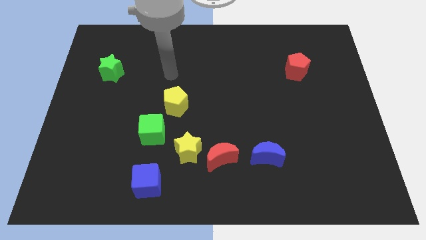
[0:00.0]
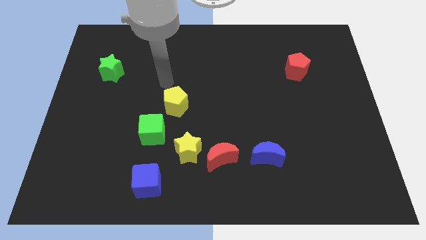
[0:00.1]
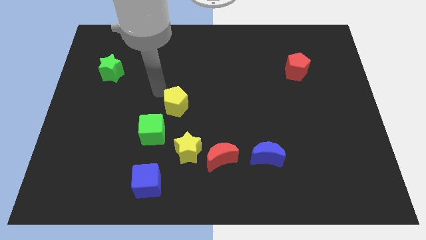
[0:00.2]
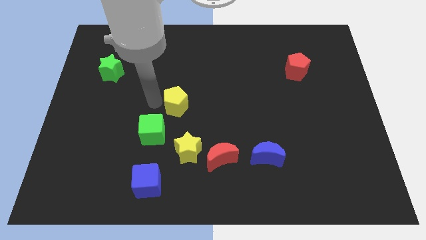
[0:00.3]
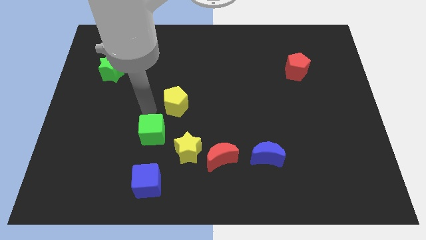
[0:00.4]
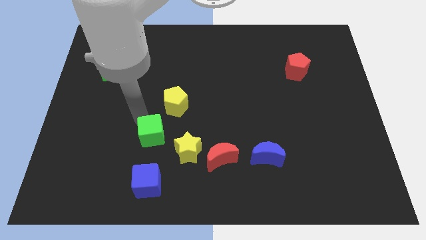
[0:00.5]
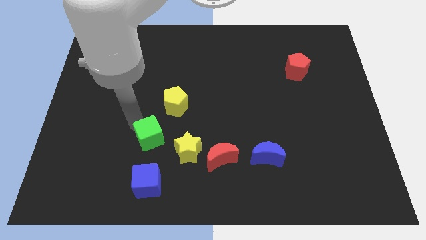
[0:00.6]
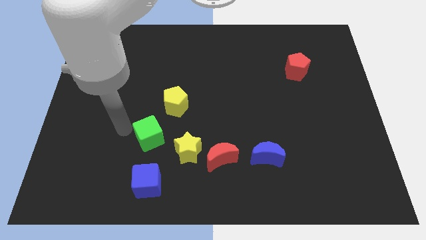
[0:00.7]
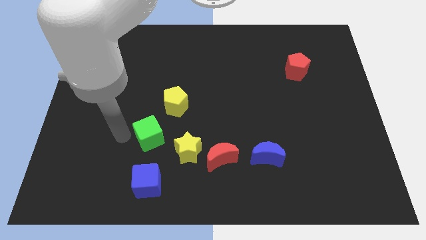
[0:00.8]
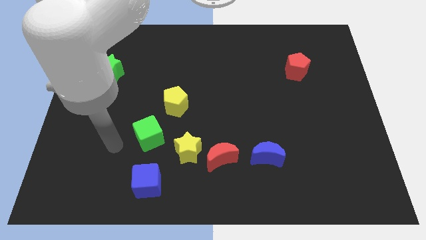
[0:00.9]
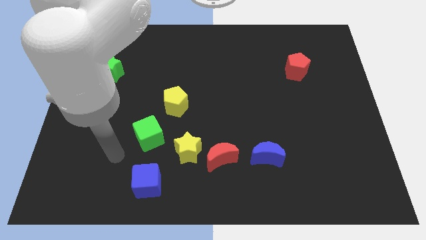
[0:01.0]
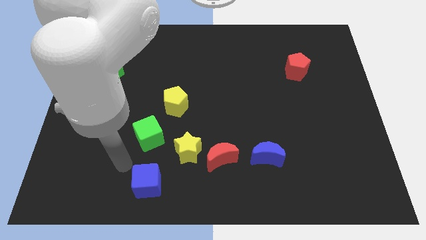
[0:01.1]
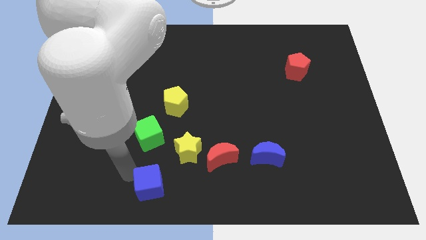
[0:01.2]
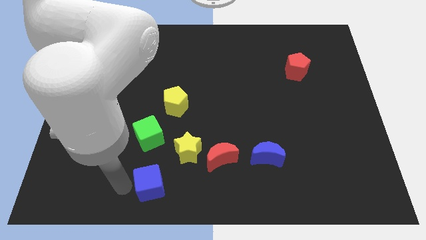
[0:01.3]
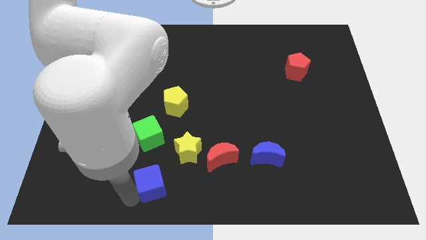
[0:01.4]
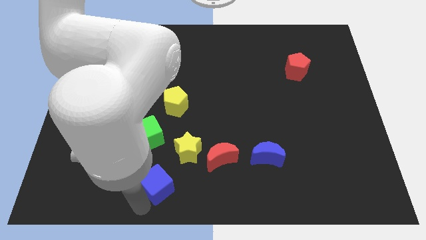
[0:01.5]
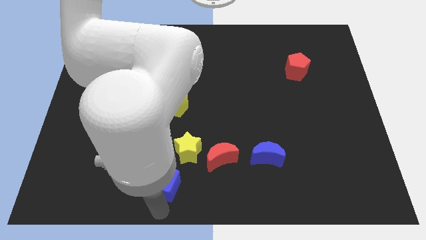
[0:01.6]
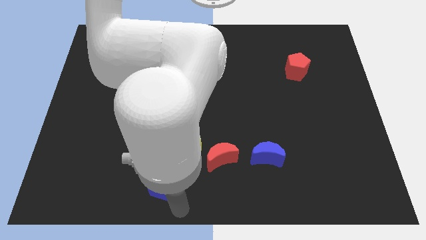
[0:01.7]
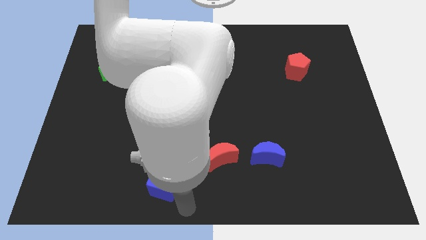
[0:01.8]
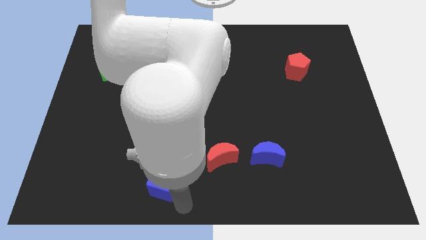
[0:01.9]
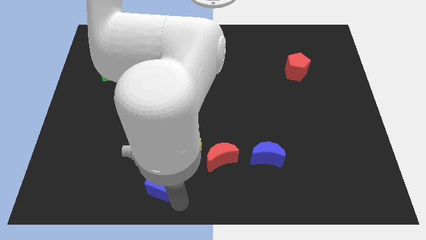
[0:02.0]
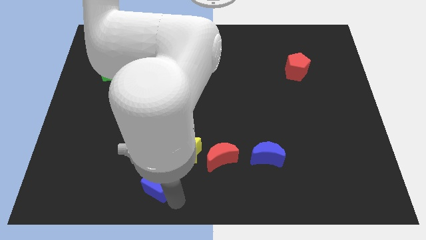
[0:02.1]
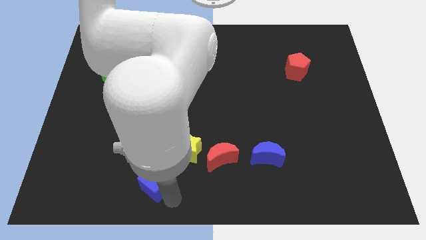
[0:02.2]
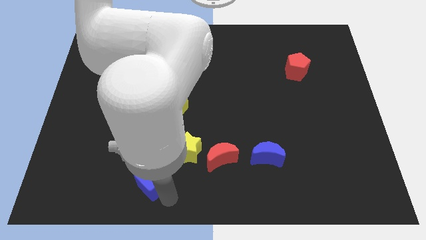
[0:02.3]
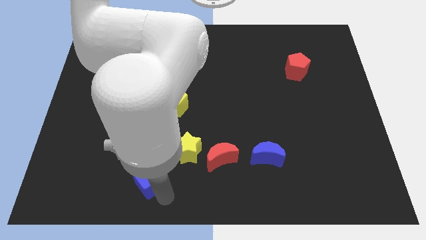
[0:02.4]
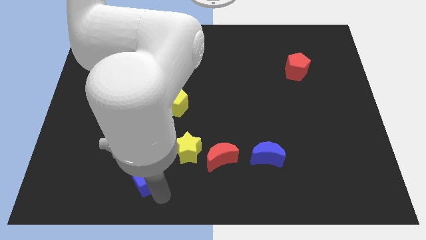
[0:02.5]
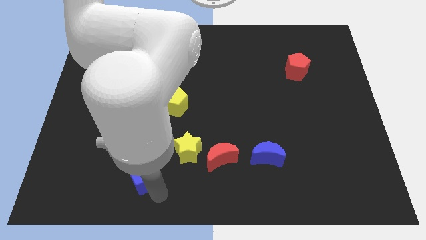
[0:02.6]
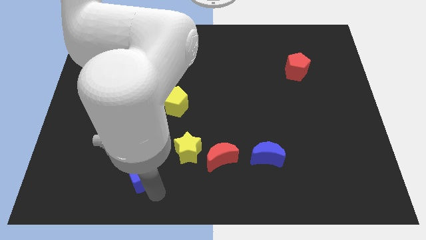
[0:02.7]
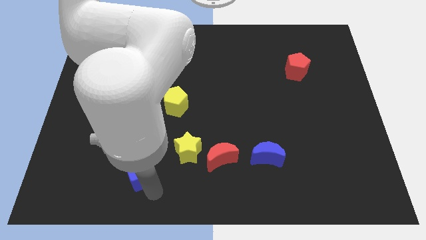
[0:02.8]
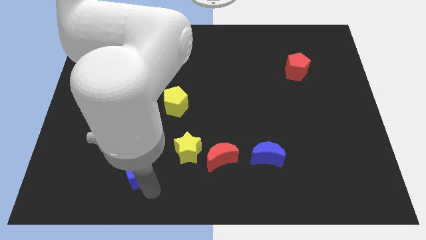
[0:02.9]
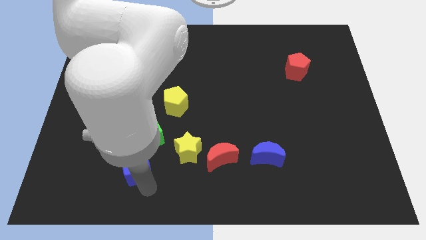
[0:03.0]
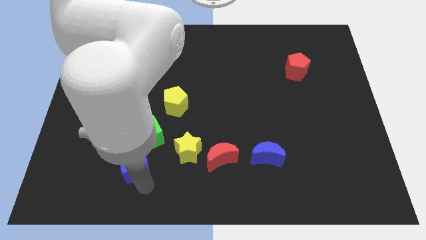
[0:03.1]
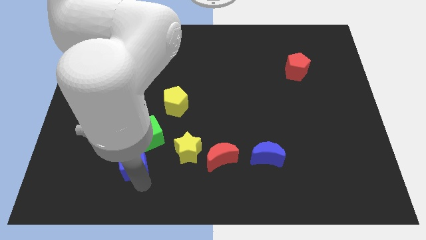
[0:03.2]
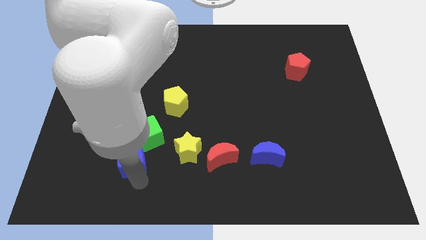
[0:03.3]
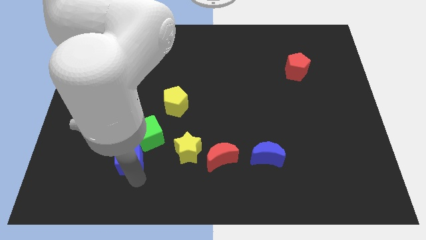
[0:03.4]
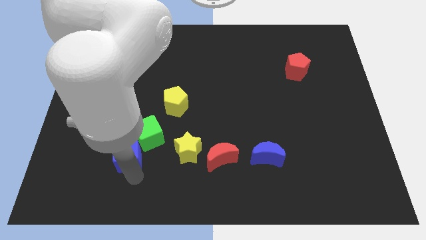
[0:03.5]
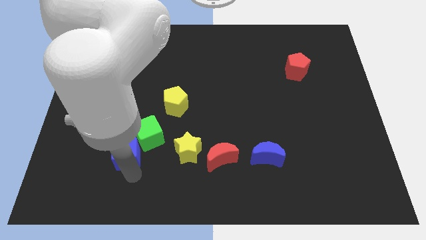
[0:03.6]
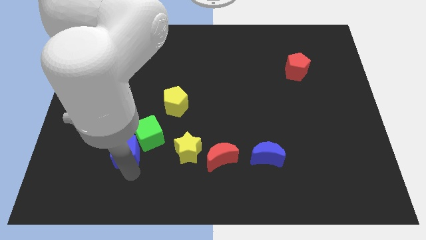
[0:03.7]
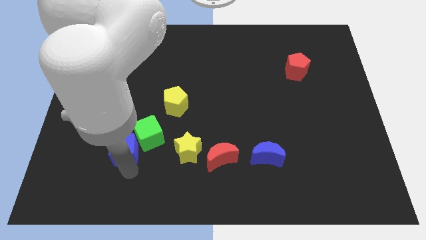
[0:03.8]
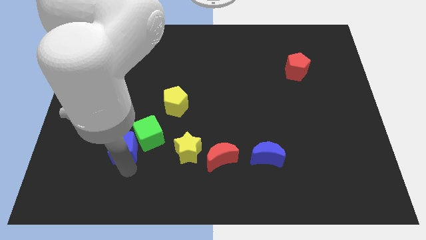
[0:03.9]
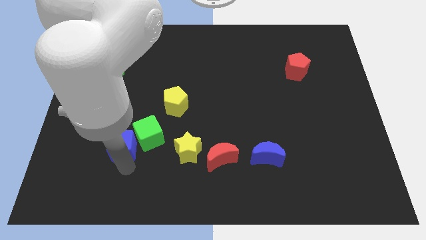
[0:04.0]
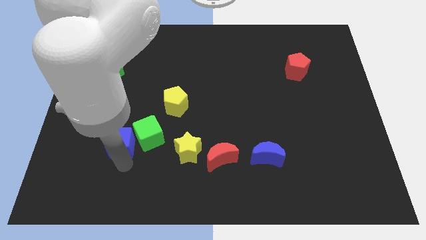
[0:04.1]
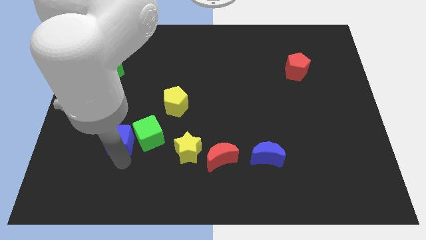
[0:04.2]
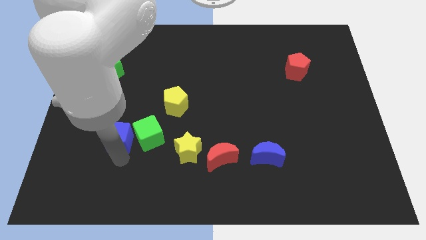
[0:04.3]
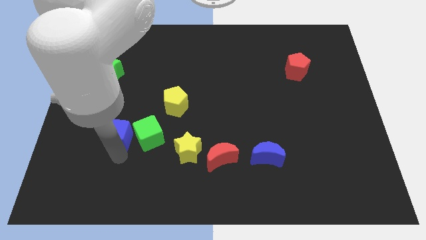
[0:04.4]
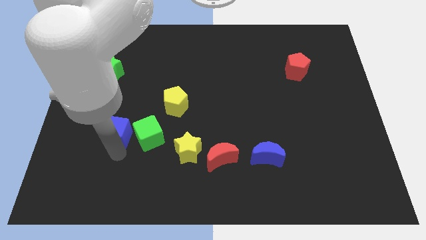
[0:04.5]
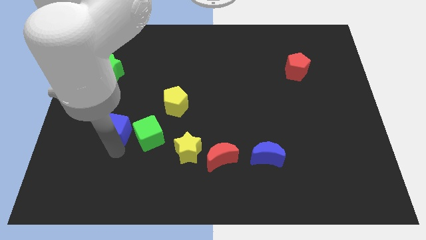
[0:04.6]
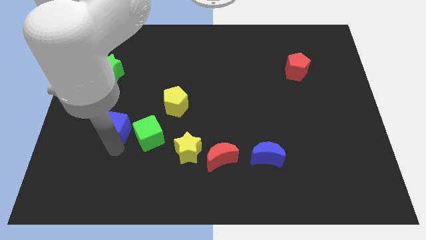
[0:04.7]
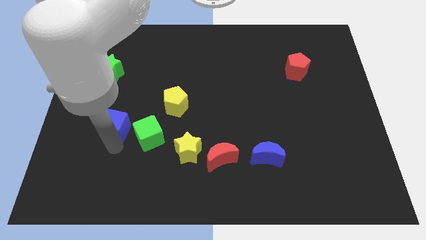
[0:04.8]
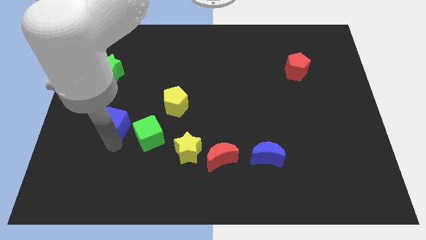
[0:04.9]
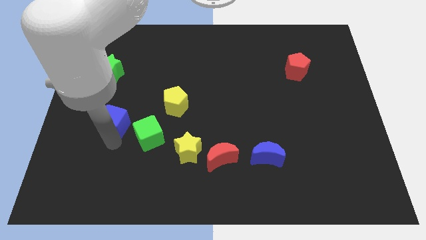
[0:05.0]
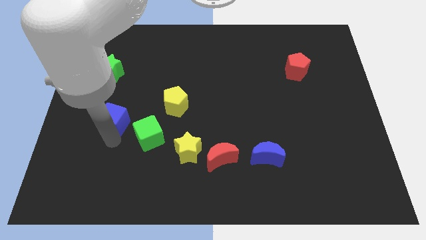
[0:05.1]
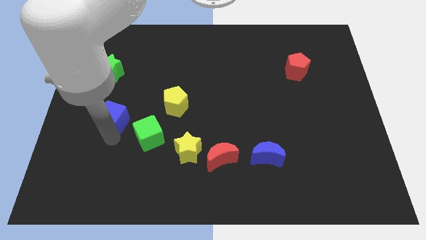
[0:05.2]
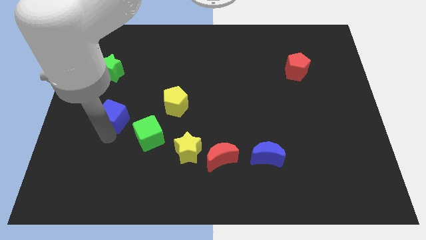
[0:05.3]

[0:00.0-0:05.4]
move the blue cube just left of the yellow pentagon

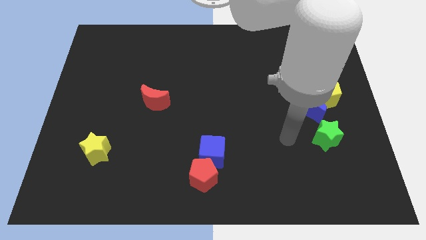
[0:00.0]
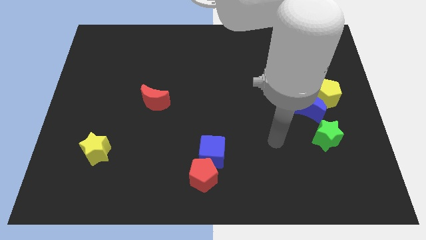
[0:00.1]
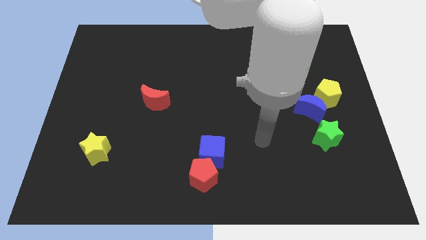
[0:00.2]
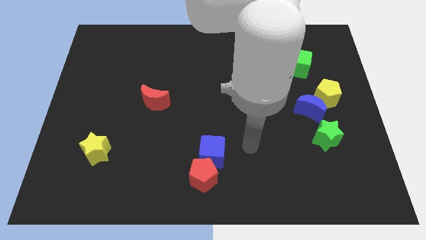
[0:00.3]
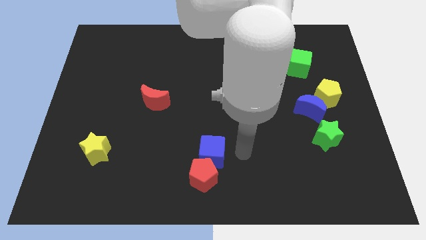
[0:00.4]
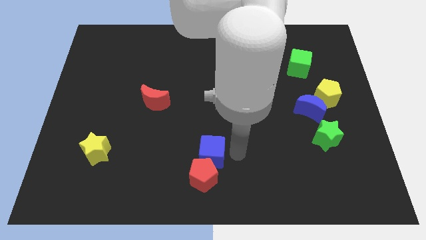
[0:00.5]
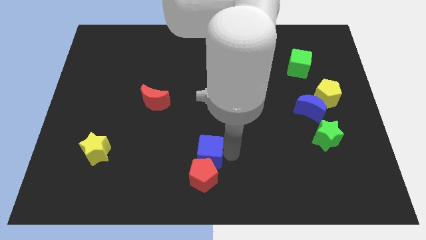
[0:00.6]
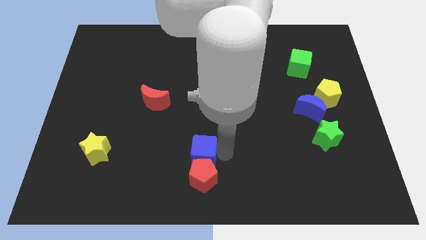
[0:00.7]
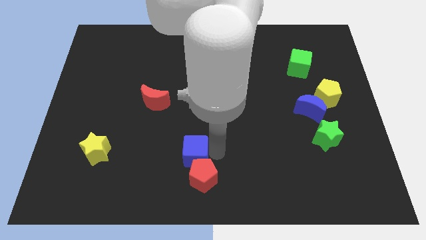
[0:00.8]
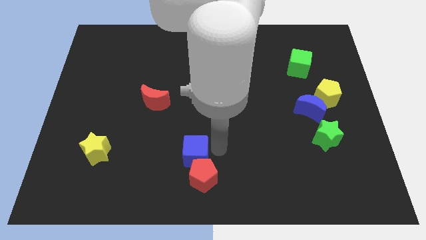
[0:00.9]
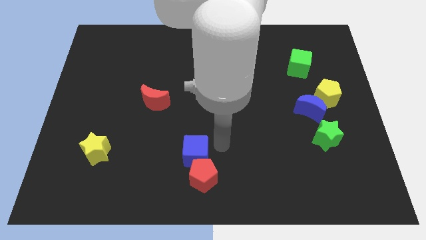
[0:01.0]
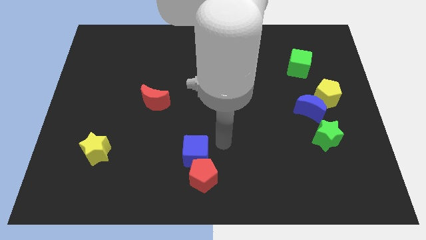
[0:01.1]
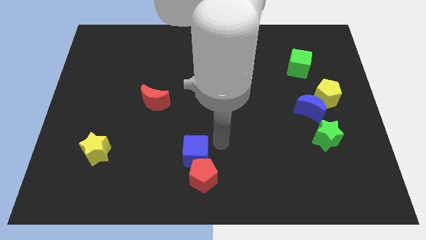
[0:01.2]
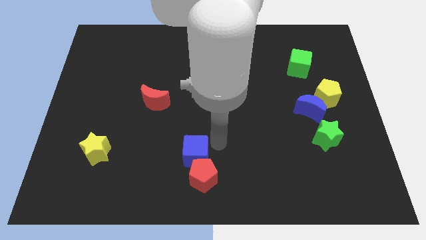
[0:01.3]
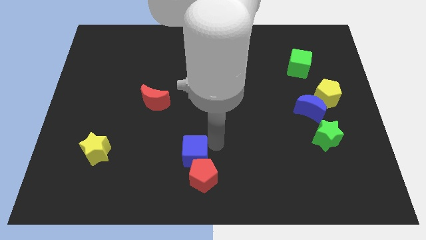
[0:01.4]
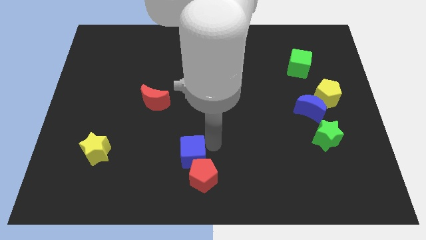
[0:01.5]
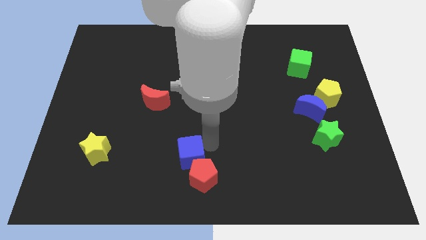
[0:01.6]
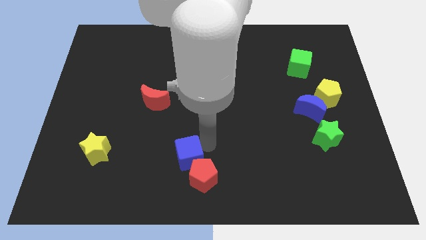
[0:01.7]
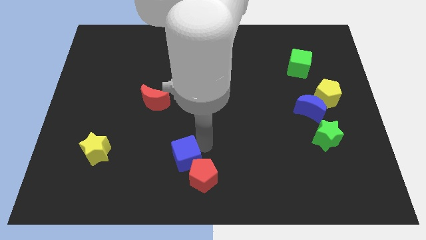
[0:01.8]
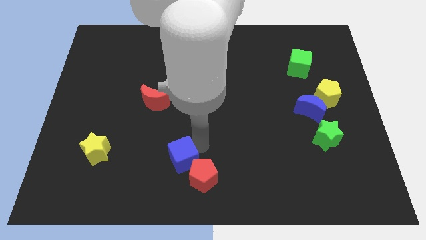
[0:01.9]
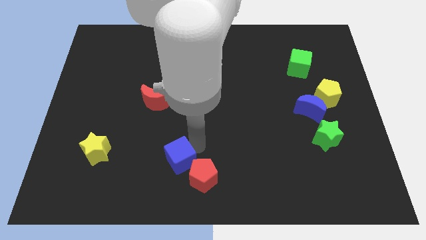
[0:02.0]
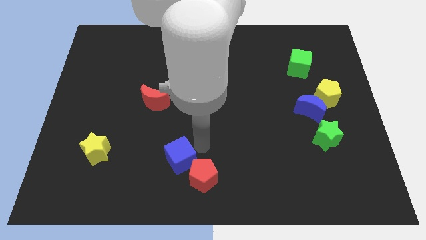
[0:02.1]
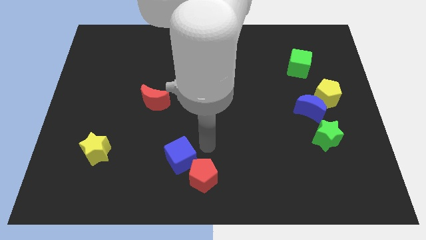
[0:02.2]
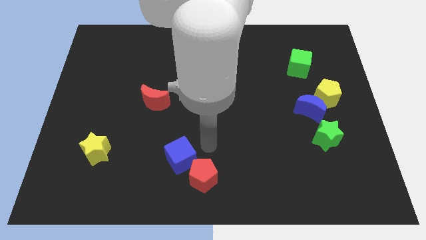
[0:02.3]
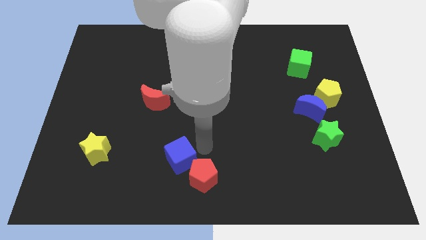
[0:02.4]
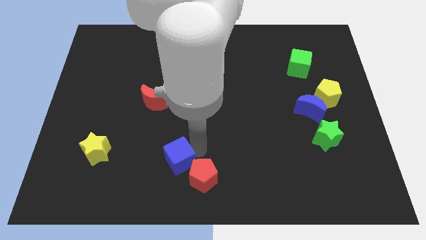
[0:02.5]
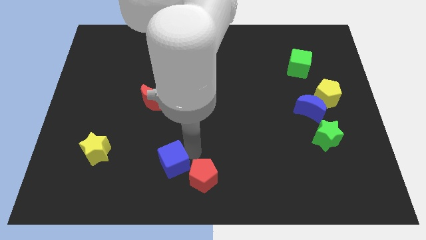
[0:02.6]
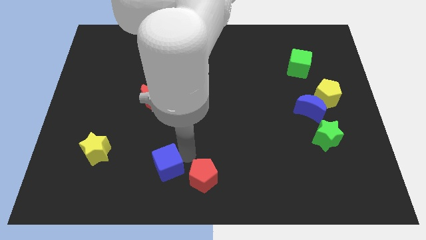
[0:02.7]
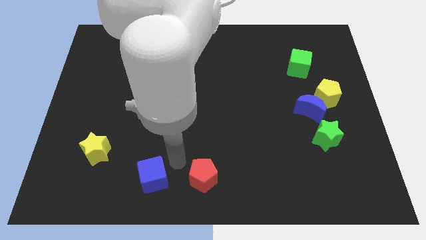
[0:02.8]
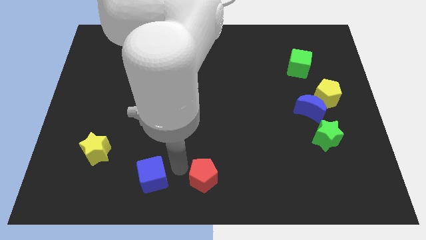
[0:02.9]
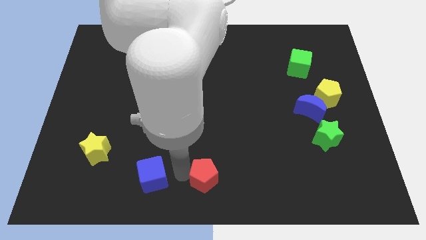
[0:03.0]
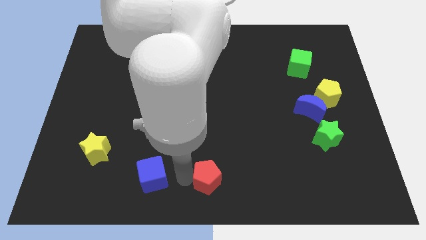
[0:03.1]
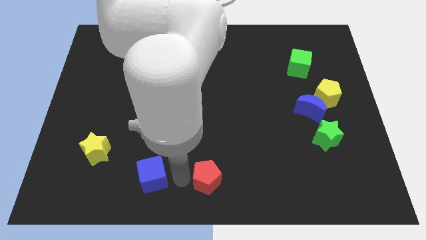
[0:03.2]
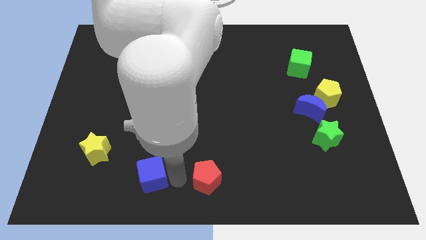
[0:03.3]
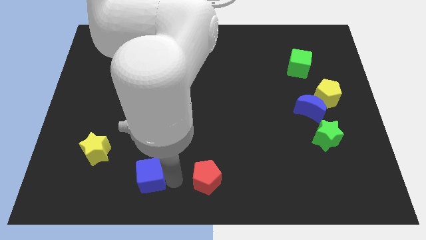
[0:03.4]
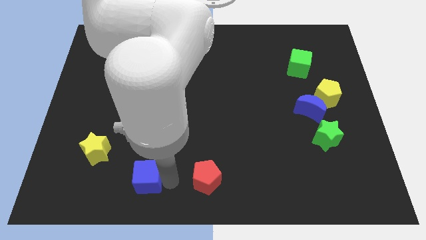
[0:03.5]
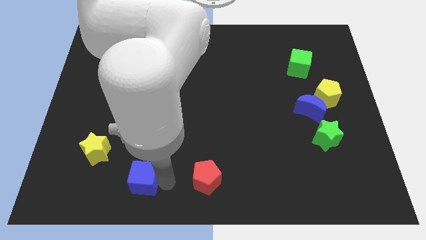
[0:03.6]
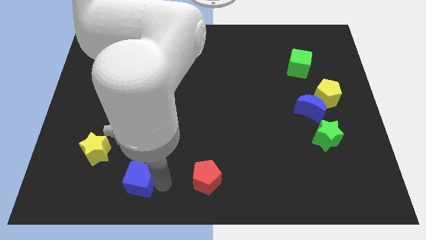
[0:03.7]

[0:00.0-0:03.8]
put the blue cube to the bottom right side of the yellow star
